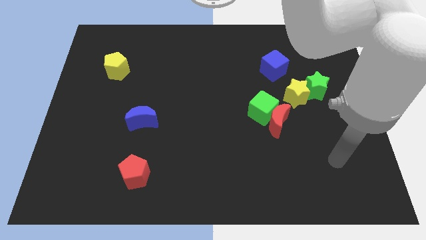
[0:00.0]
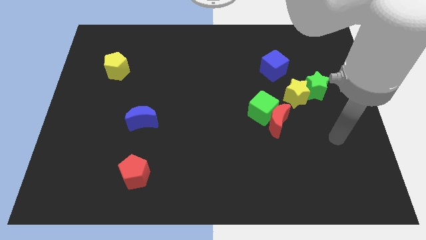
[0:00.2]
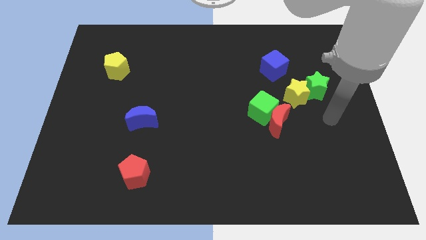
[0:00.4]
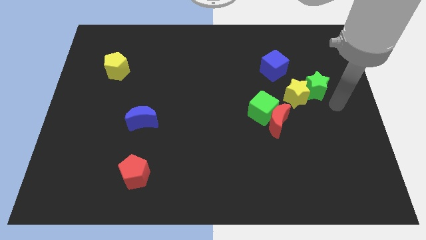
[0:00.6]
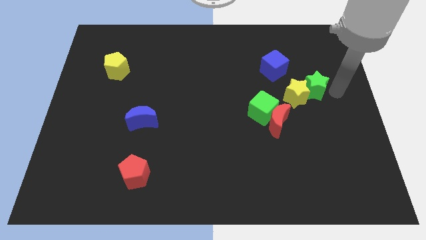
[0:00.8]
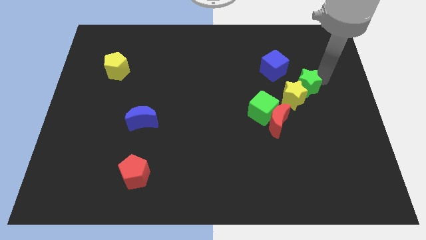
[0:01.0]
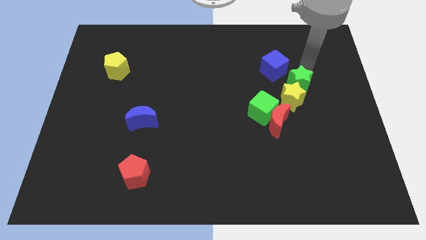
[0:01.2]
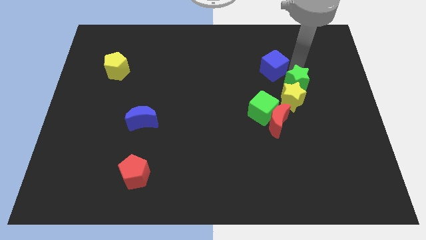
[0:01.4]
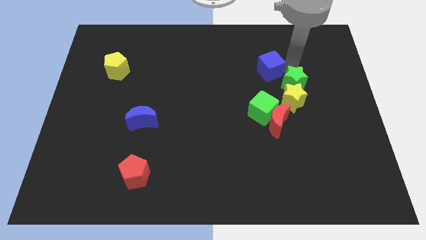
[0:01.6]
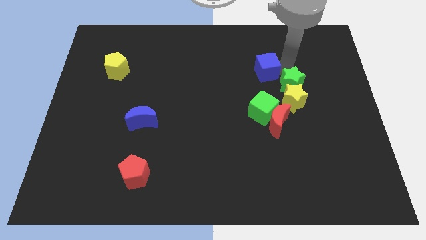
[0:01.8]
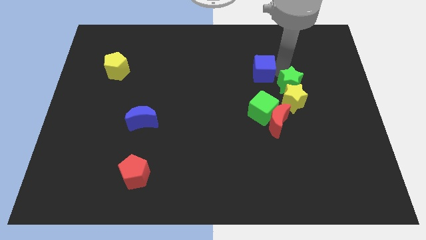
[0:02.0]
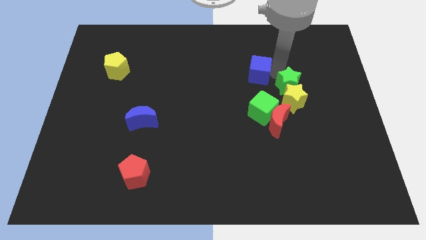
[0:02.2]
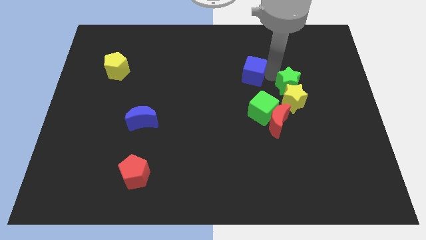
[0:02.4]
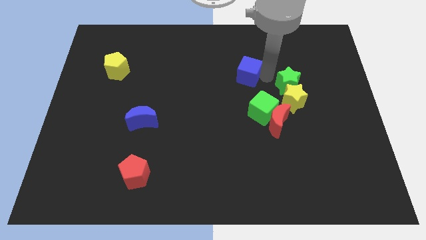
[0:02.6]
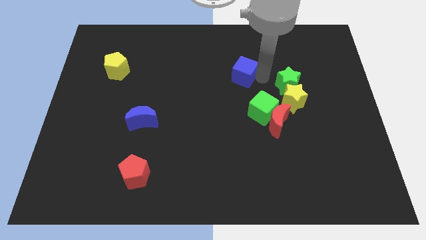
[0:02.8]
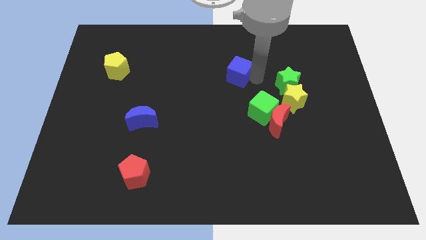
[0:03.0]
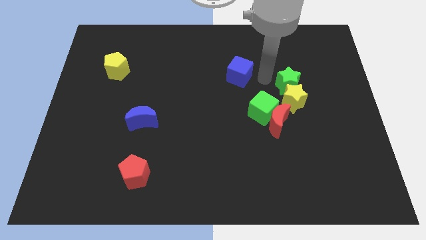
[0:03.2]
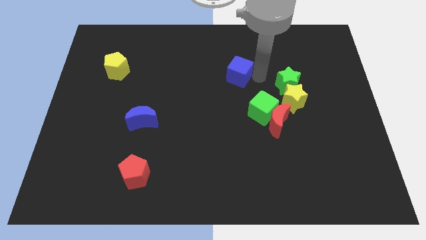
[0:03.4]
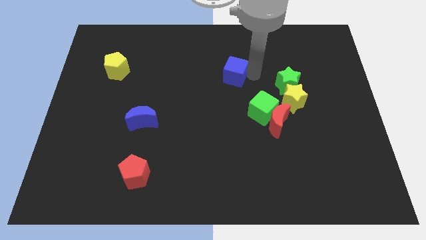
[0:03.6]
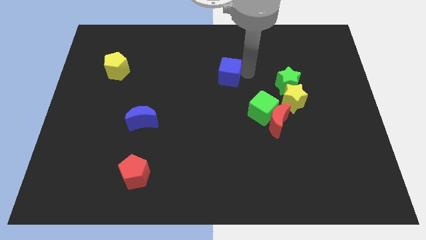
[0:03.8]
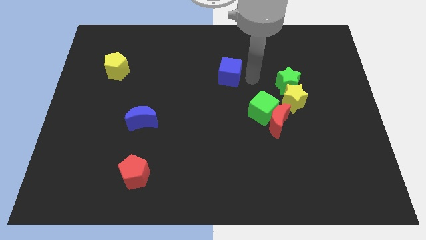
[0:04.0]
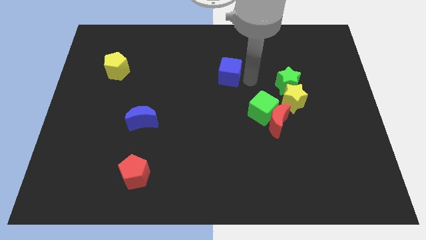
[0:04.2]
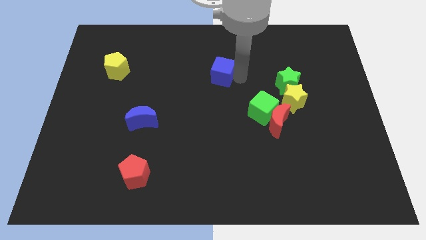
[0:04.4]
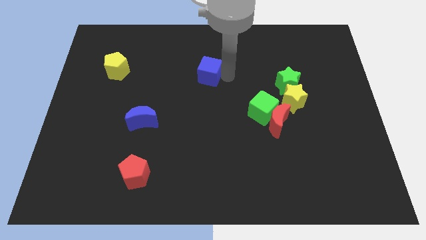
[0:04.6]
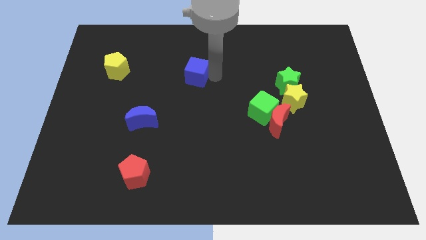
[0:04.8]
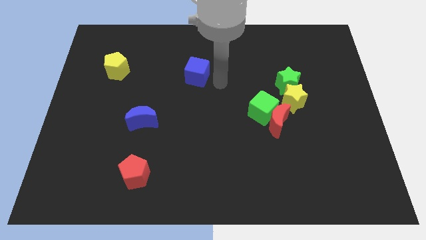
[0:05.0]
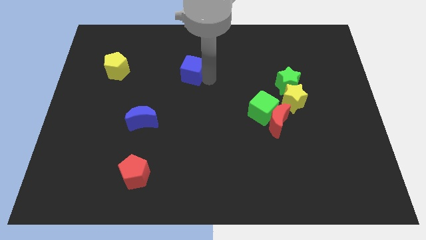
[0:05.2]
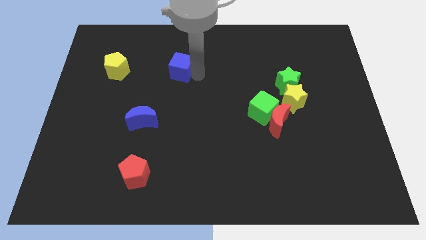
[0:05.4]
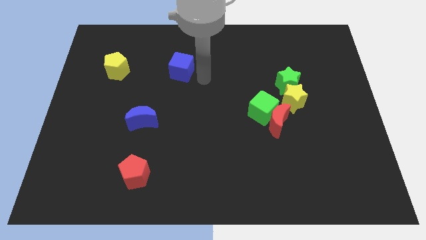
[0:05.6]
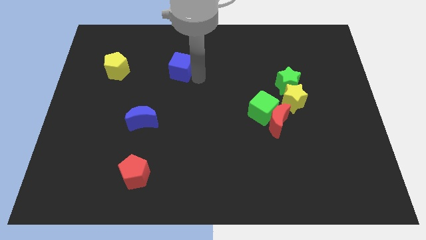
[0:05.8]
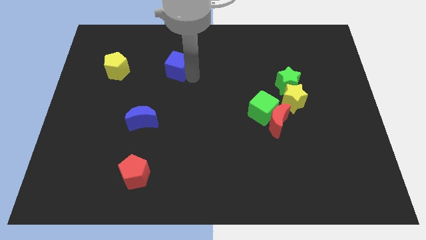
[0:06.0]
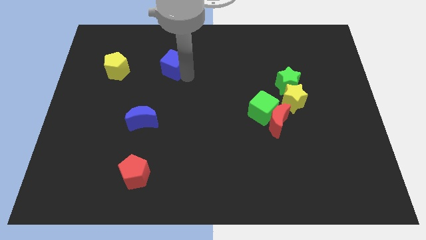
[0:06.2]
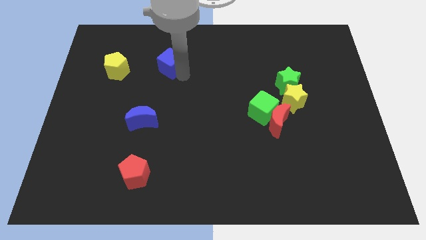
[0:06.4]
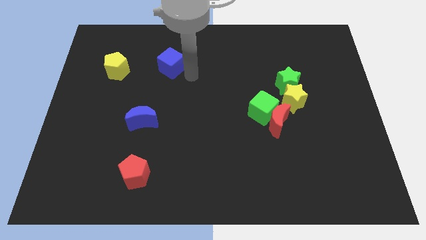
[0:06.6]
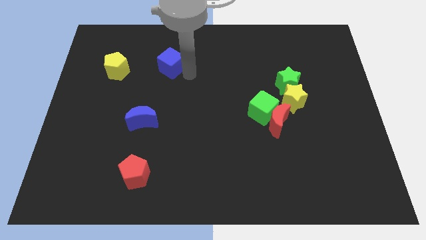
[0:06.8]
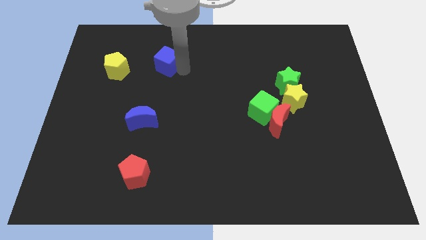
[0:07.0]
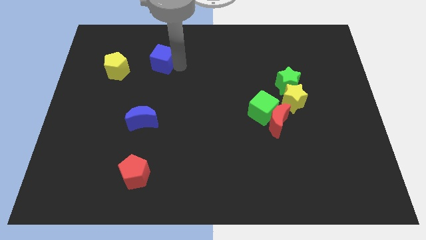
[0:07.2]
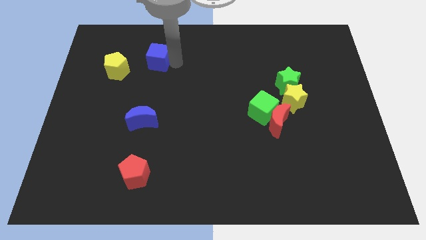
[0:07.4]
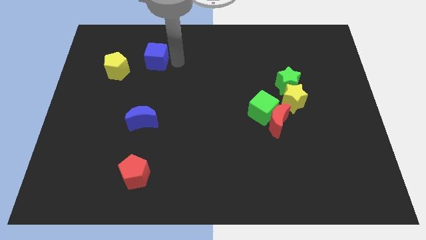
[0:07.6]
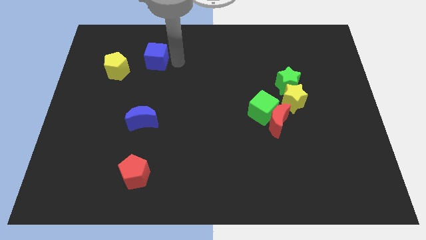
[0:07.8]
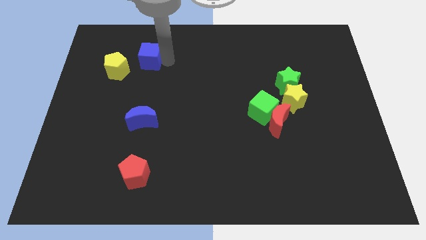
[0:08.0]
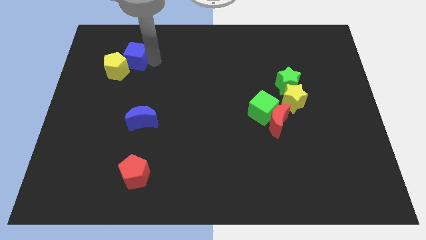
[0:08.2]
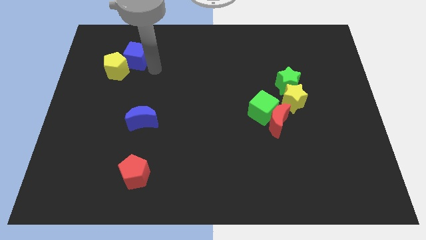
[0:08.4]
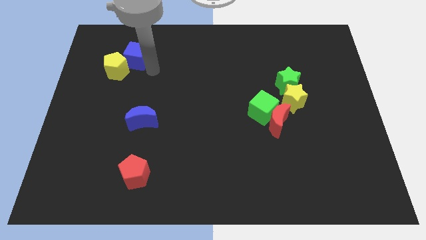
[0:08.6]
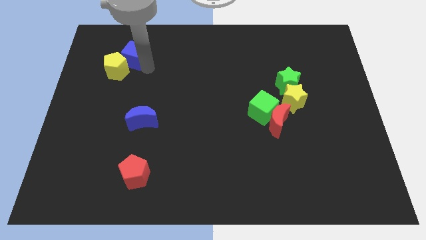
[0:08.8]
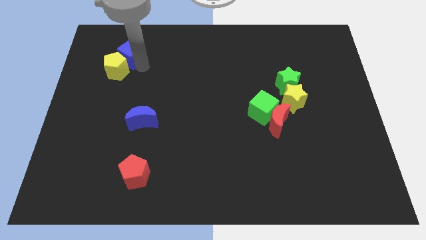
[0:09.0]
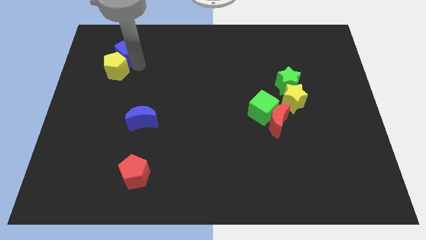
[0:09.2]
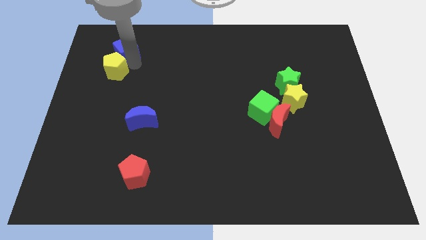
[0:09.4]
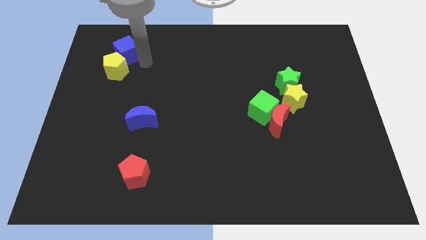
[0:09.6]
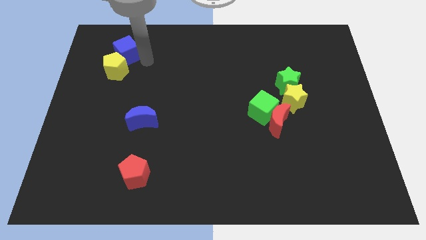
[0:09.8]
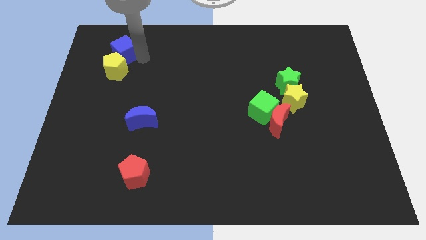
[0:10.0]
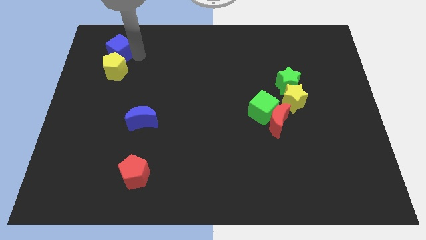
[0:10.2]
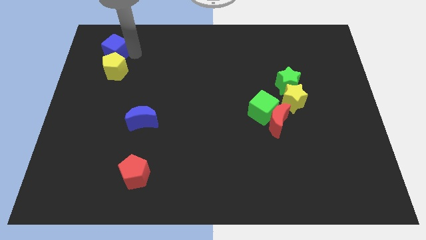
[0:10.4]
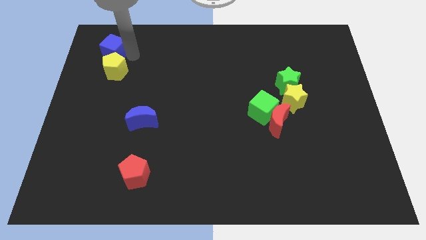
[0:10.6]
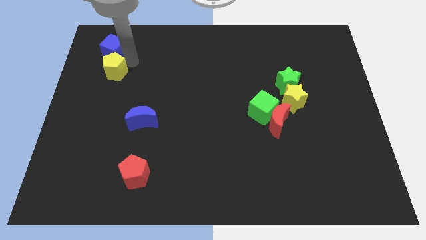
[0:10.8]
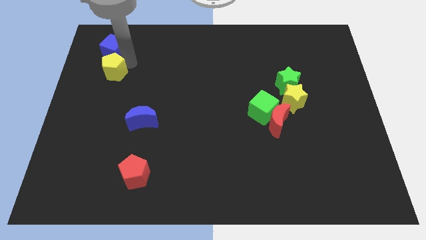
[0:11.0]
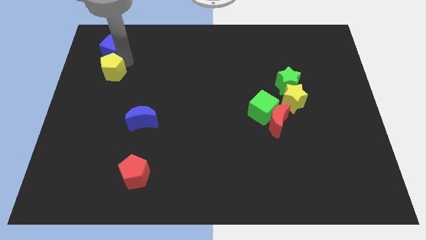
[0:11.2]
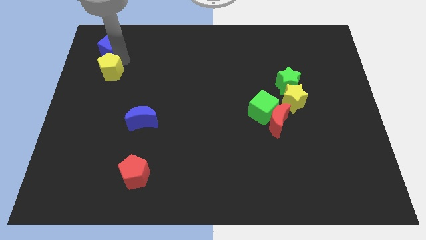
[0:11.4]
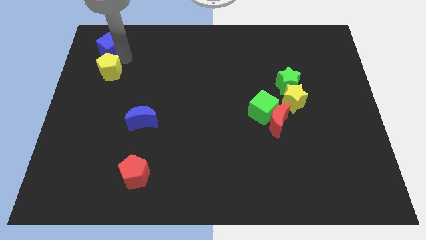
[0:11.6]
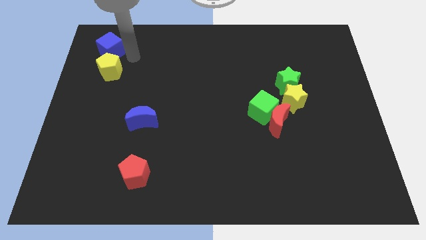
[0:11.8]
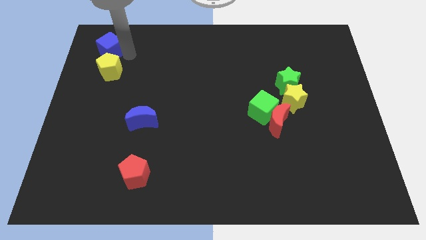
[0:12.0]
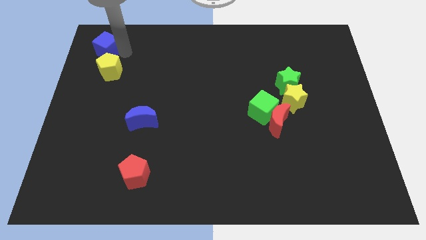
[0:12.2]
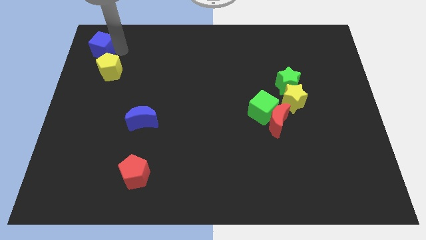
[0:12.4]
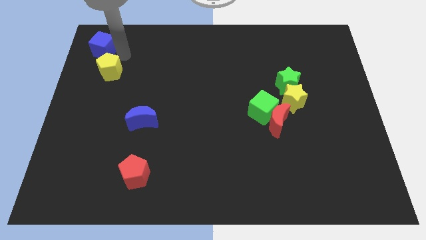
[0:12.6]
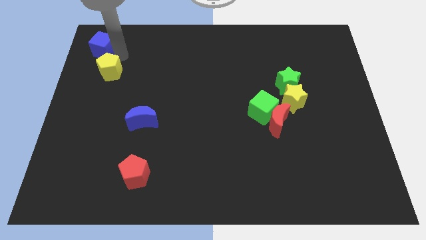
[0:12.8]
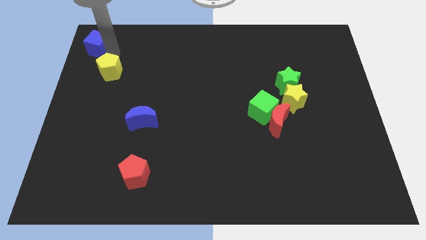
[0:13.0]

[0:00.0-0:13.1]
move the blue cube to the top left of the board
